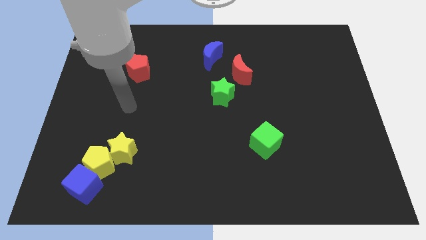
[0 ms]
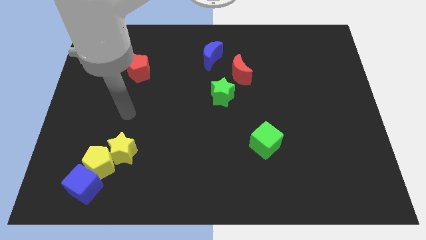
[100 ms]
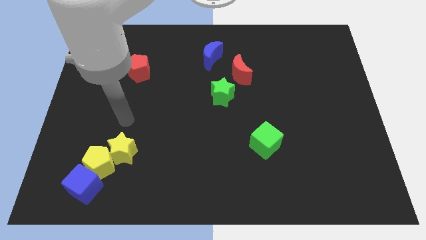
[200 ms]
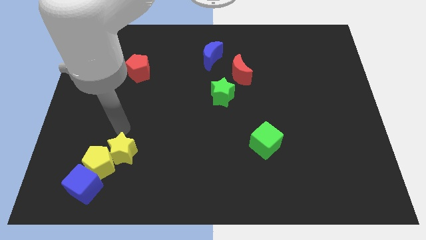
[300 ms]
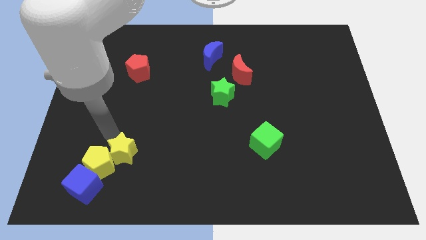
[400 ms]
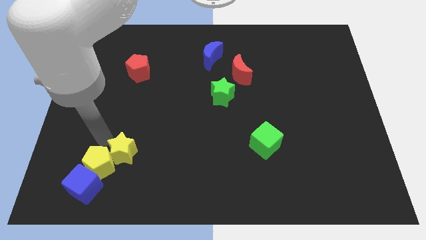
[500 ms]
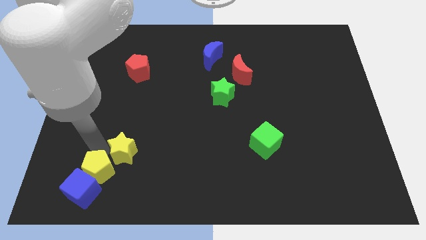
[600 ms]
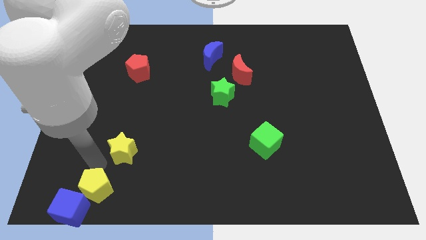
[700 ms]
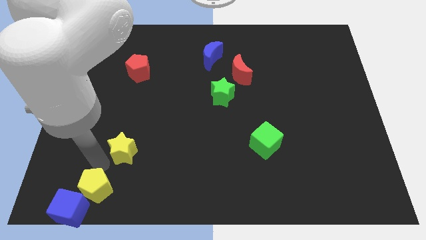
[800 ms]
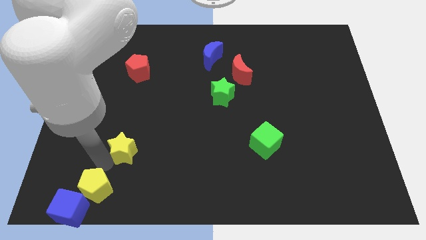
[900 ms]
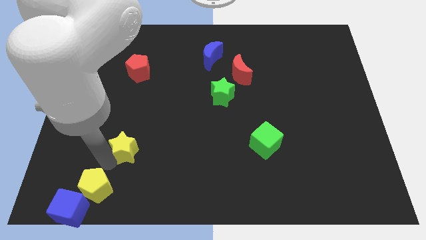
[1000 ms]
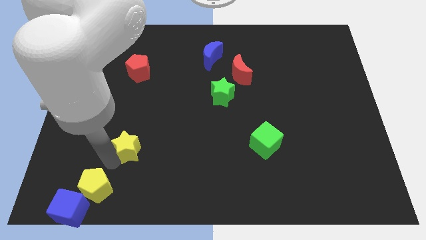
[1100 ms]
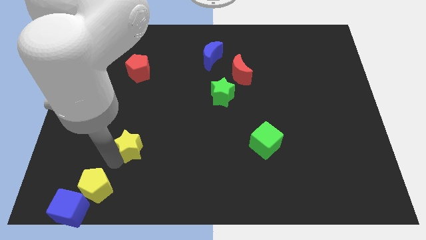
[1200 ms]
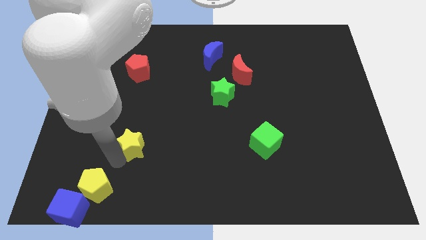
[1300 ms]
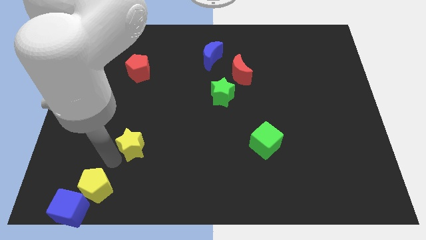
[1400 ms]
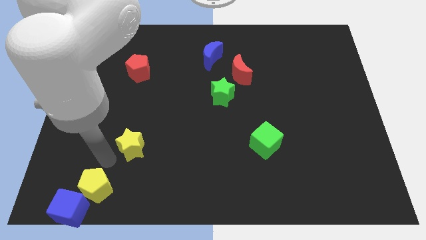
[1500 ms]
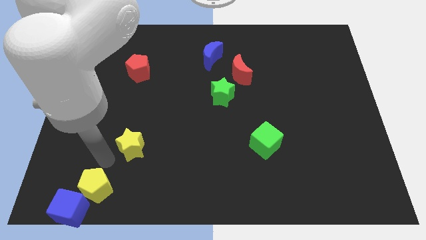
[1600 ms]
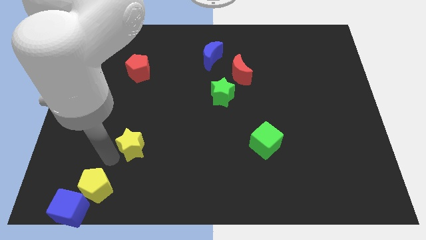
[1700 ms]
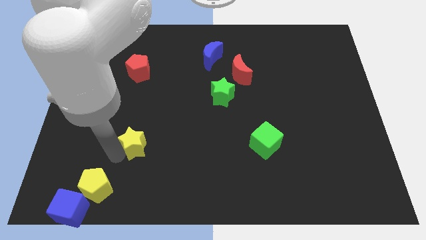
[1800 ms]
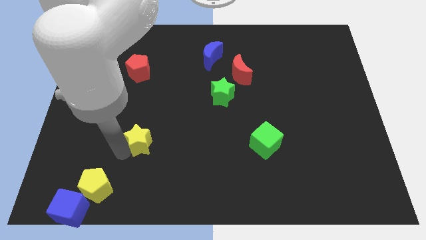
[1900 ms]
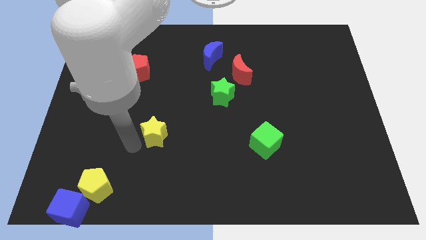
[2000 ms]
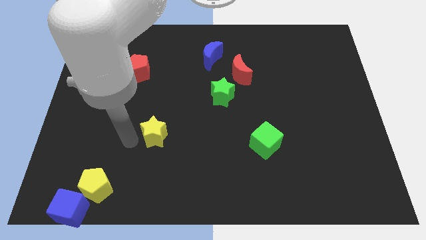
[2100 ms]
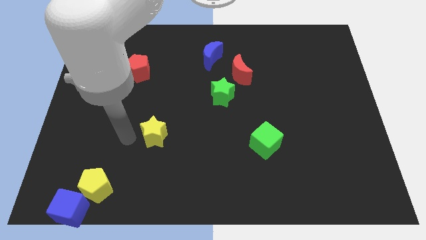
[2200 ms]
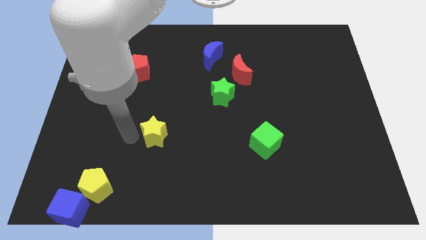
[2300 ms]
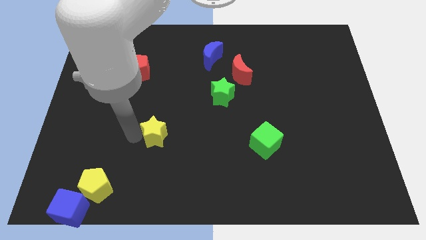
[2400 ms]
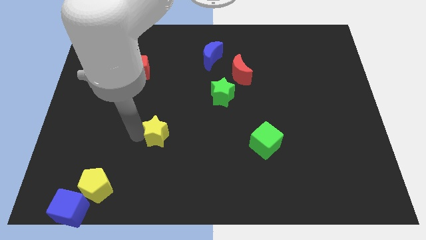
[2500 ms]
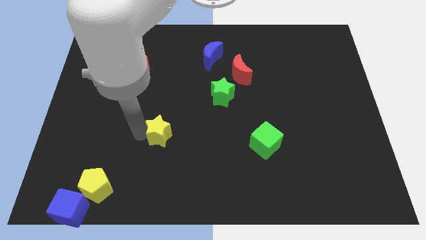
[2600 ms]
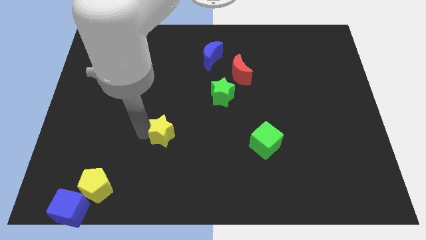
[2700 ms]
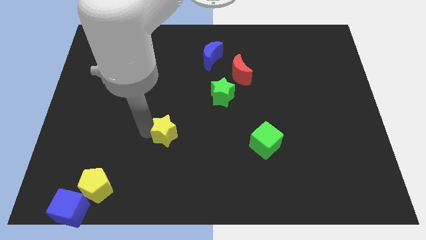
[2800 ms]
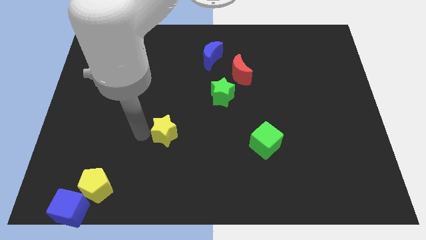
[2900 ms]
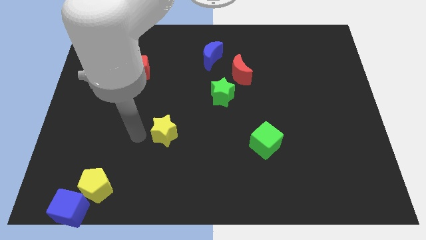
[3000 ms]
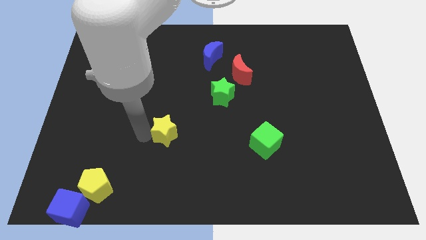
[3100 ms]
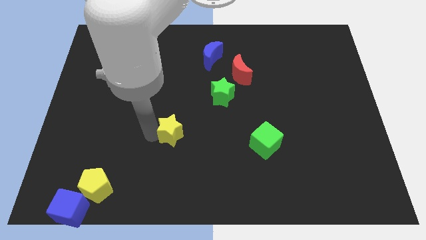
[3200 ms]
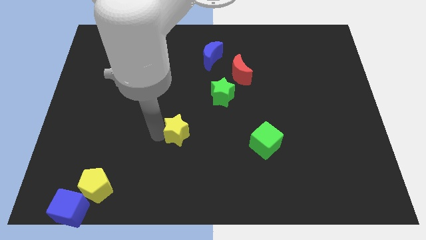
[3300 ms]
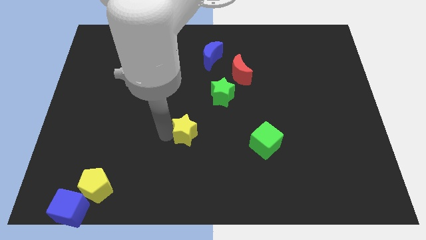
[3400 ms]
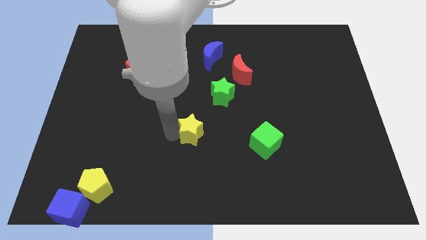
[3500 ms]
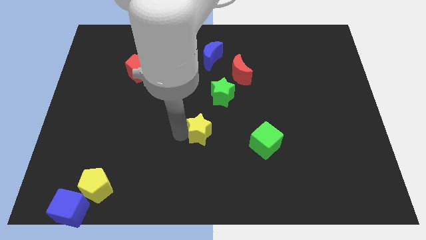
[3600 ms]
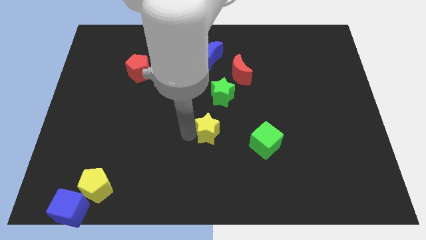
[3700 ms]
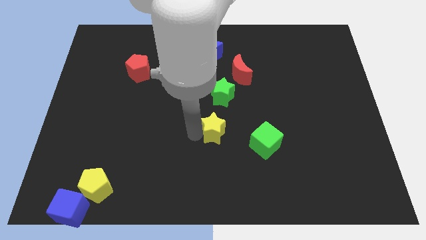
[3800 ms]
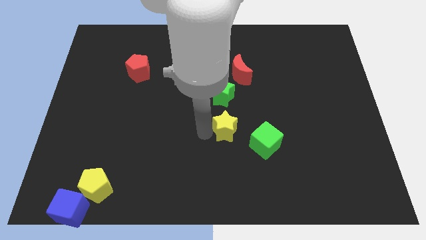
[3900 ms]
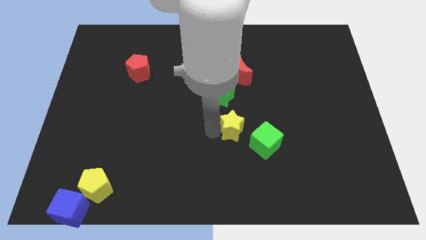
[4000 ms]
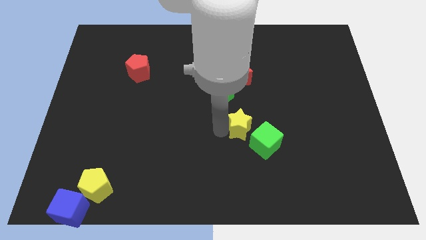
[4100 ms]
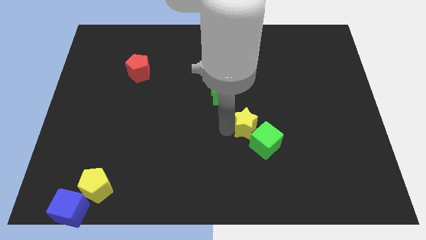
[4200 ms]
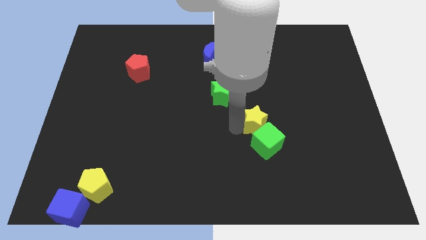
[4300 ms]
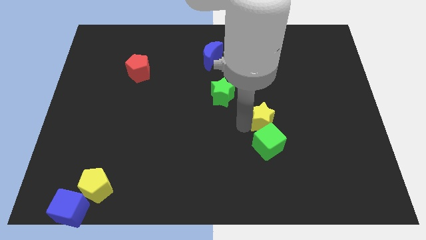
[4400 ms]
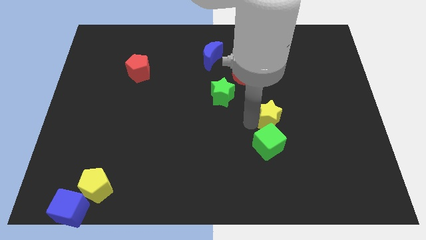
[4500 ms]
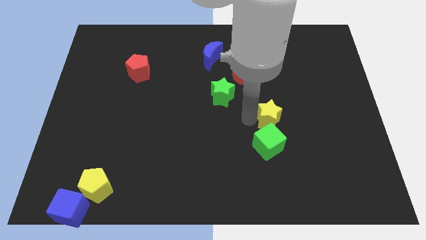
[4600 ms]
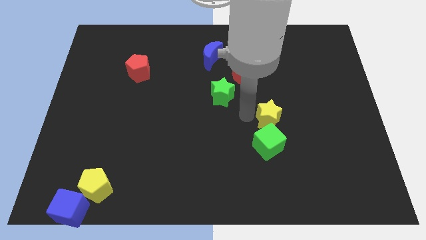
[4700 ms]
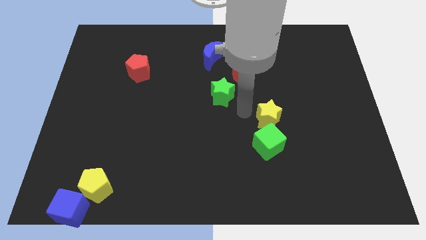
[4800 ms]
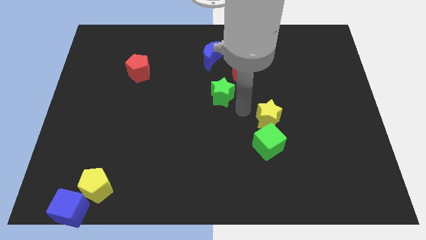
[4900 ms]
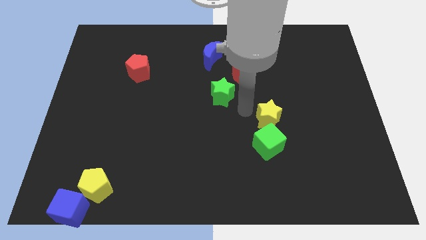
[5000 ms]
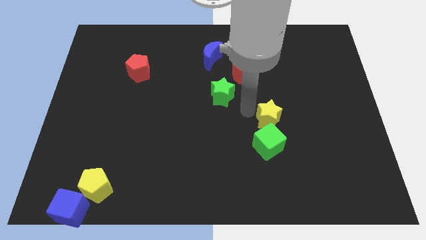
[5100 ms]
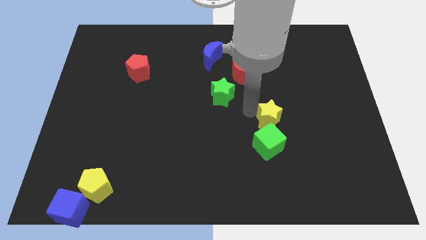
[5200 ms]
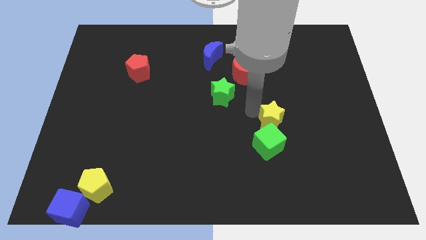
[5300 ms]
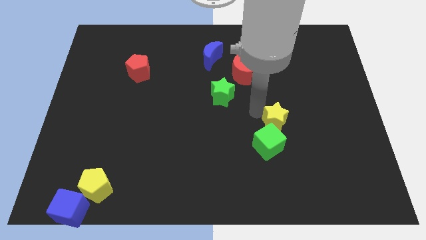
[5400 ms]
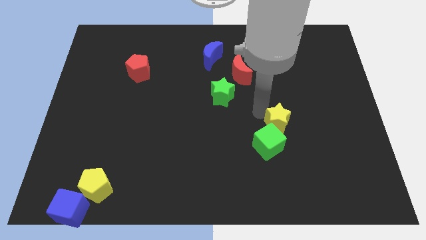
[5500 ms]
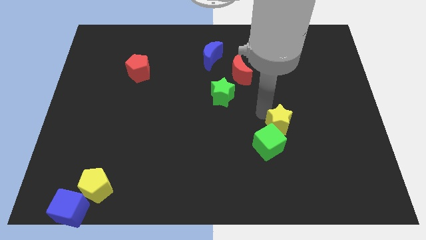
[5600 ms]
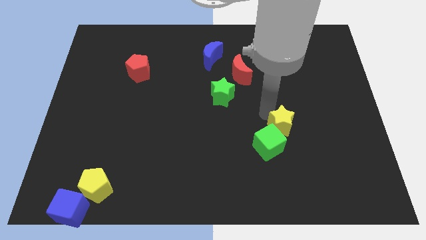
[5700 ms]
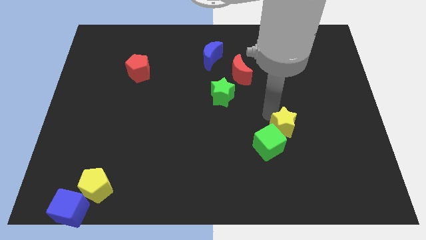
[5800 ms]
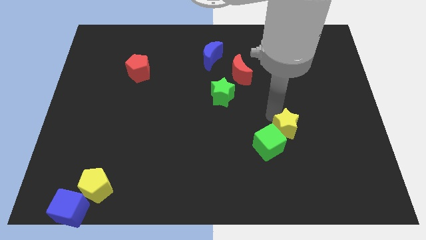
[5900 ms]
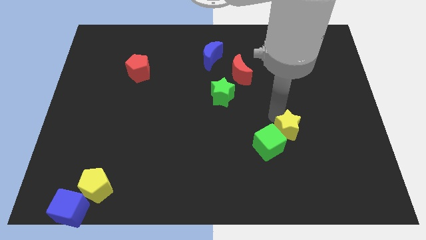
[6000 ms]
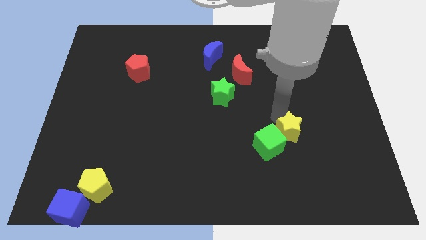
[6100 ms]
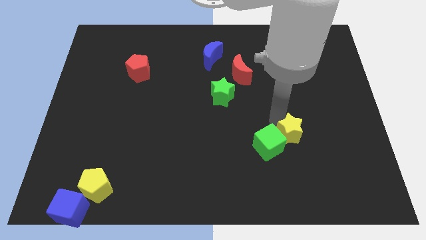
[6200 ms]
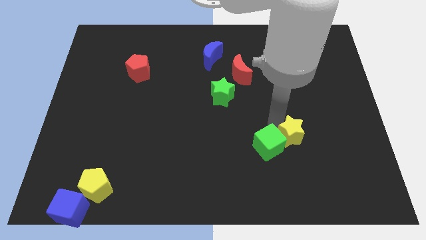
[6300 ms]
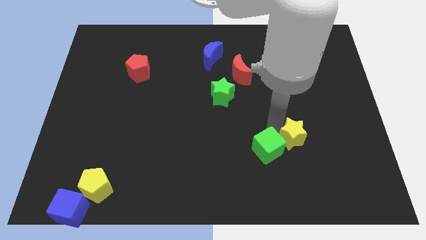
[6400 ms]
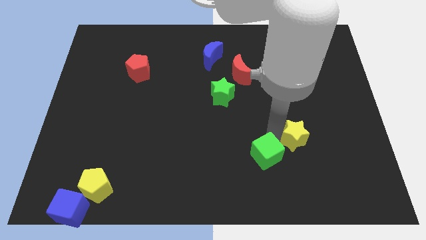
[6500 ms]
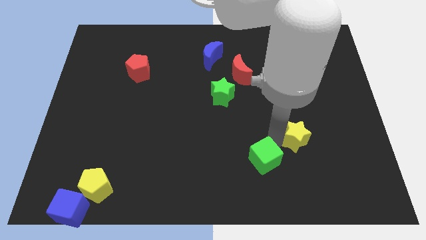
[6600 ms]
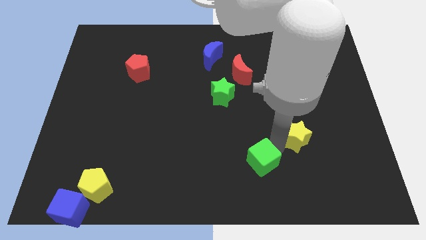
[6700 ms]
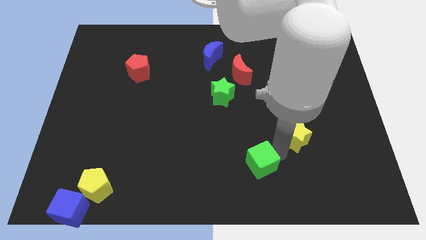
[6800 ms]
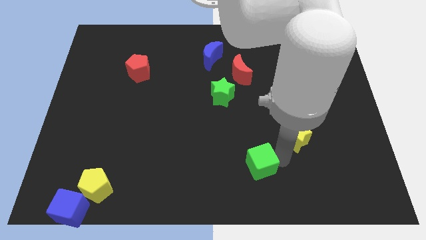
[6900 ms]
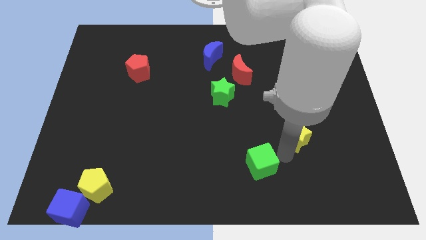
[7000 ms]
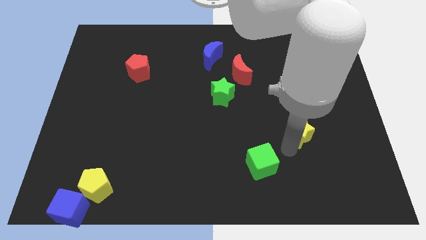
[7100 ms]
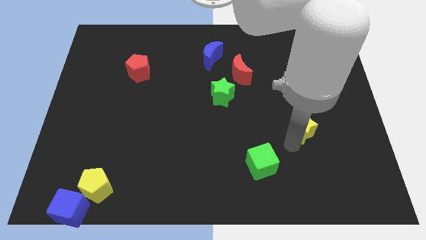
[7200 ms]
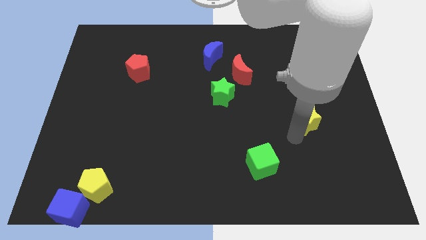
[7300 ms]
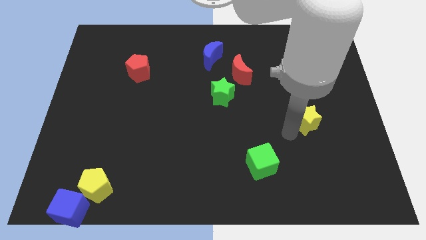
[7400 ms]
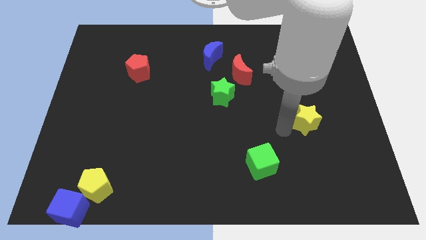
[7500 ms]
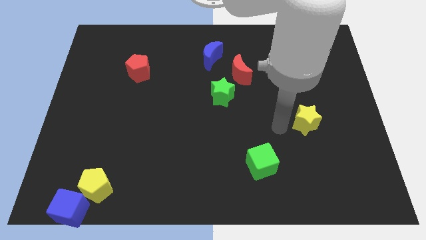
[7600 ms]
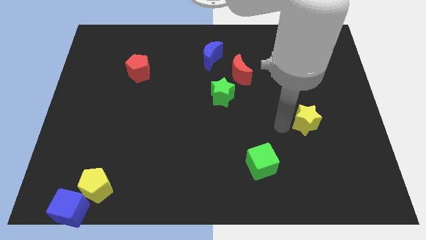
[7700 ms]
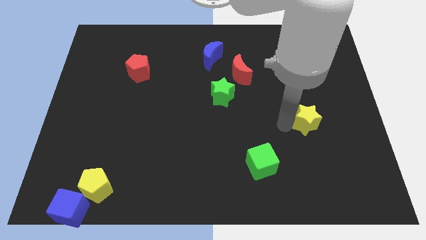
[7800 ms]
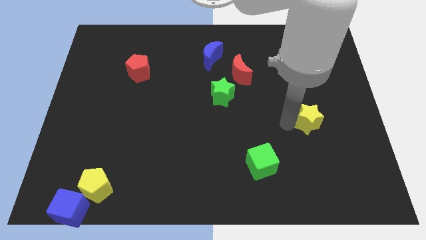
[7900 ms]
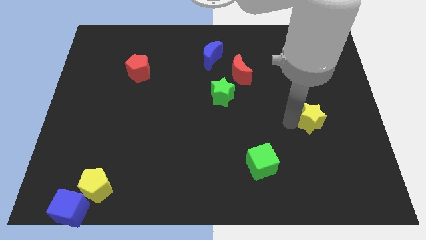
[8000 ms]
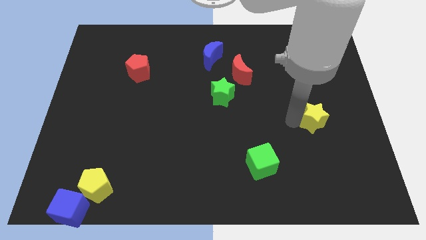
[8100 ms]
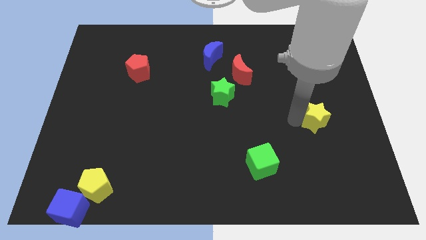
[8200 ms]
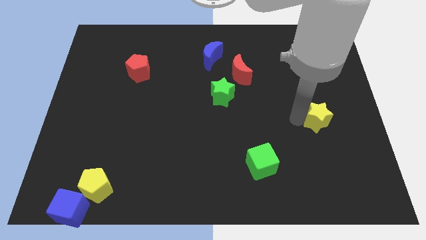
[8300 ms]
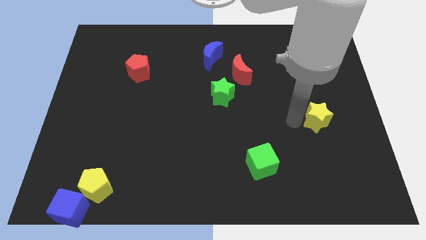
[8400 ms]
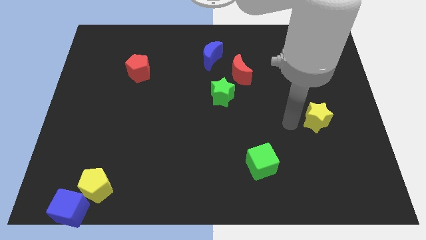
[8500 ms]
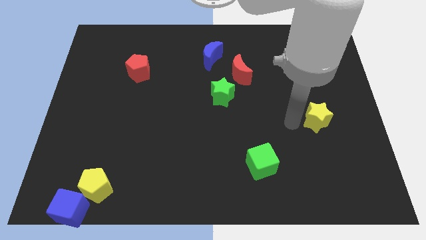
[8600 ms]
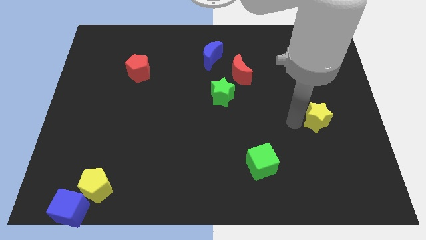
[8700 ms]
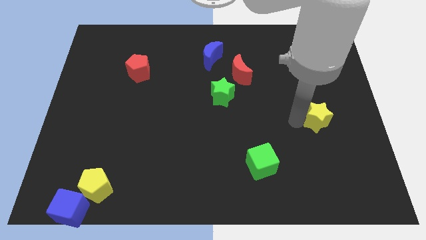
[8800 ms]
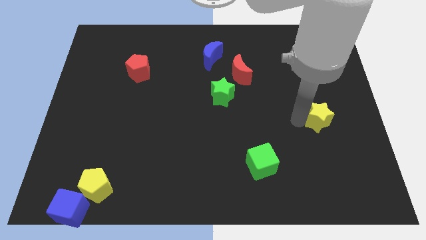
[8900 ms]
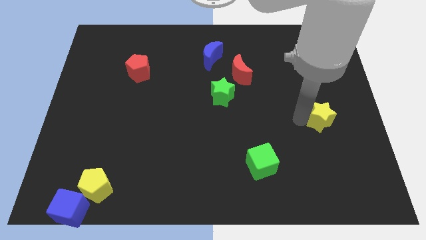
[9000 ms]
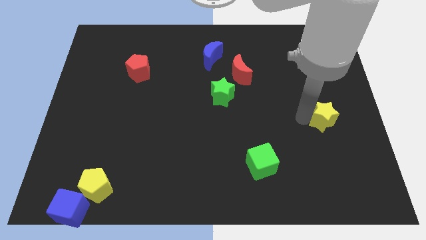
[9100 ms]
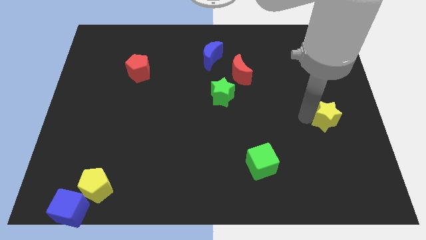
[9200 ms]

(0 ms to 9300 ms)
put the yellow star to the right side
